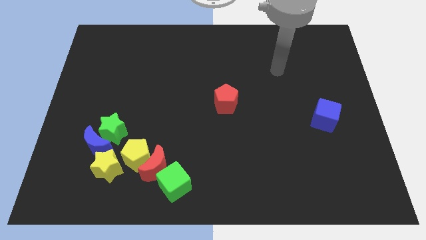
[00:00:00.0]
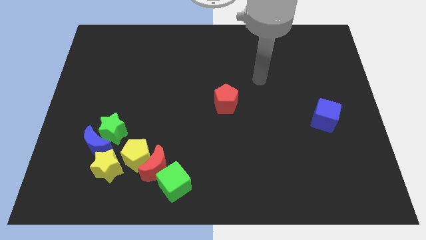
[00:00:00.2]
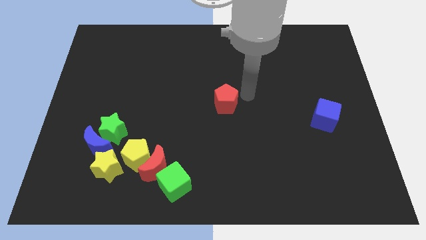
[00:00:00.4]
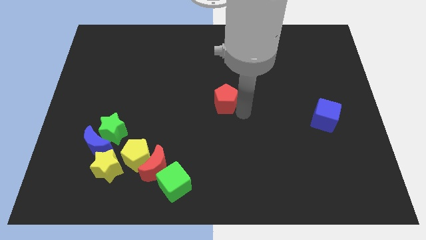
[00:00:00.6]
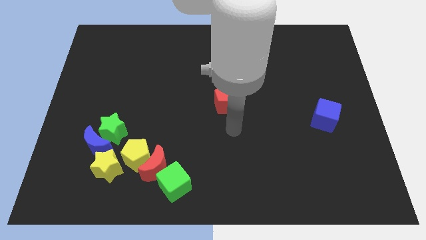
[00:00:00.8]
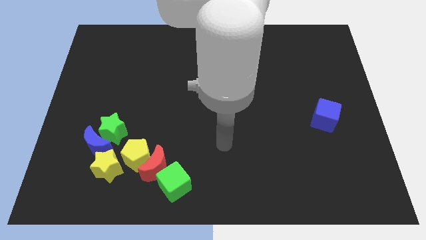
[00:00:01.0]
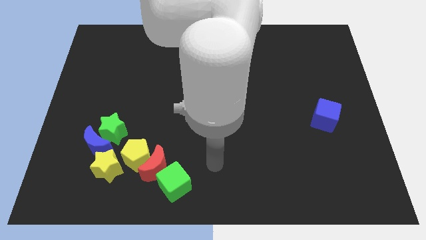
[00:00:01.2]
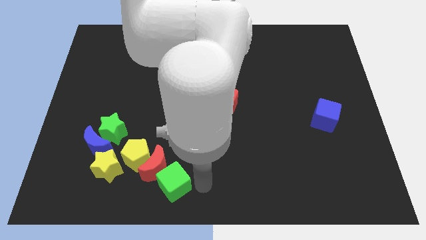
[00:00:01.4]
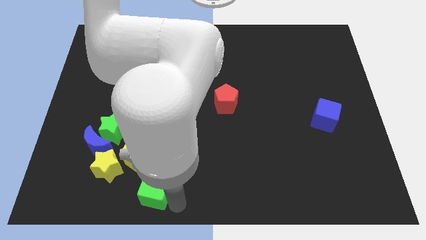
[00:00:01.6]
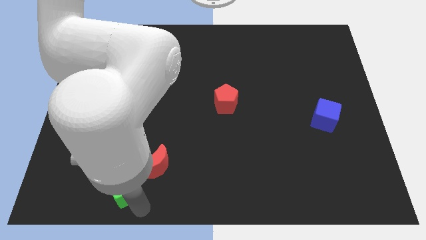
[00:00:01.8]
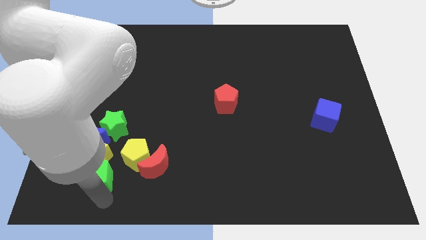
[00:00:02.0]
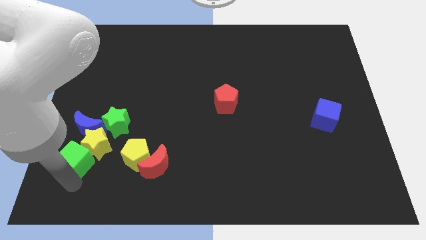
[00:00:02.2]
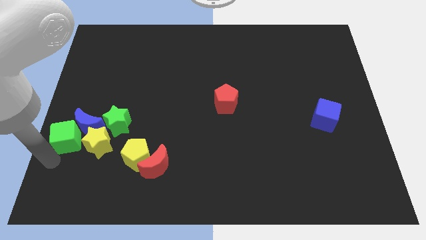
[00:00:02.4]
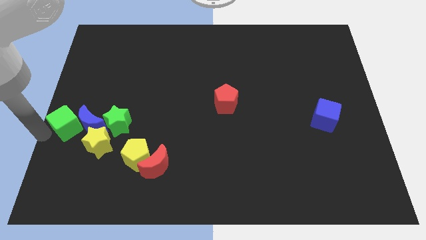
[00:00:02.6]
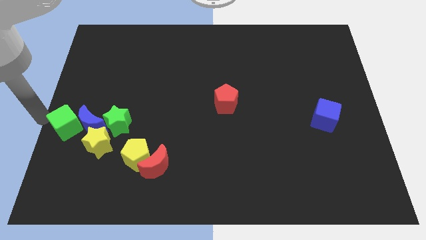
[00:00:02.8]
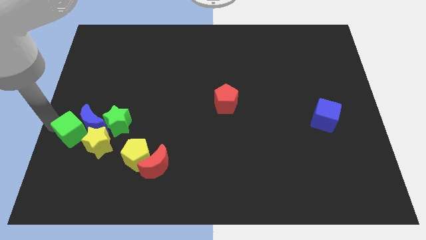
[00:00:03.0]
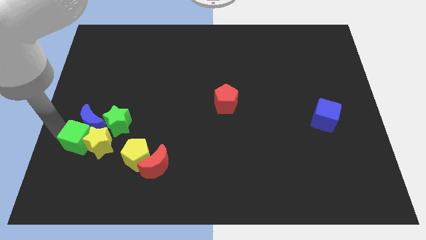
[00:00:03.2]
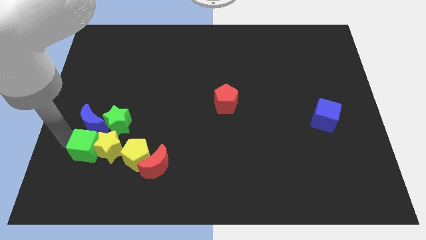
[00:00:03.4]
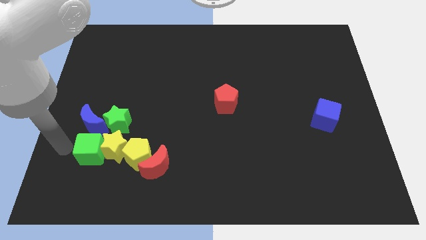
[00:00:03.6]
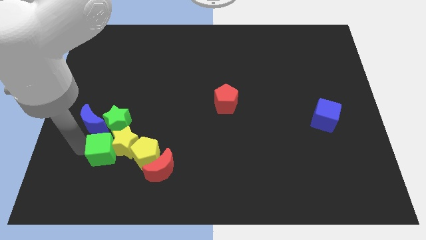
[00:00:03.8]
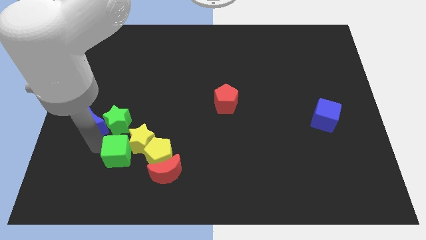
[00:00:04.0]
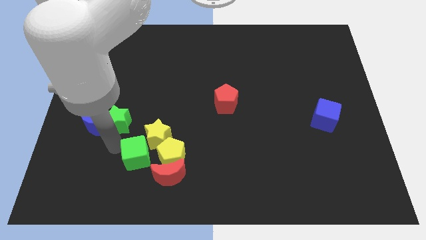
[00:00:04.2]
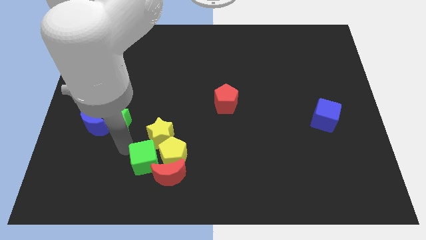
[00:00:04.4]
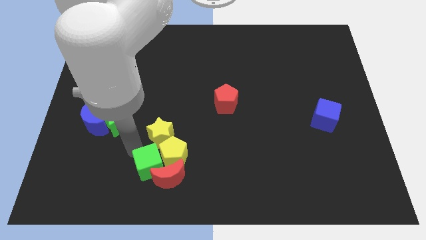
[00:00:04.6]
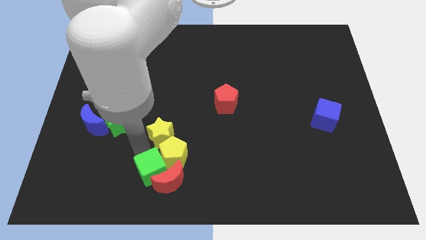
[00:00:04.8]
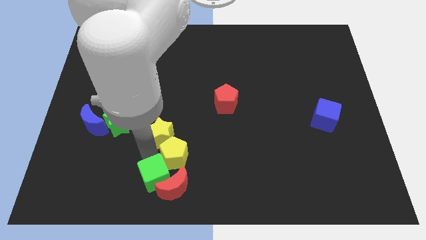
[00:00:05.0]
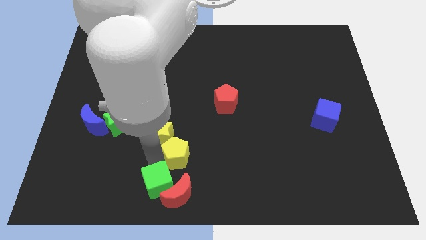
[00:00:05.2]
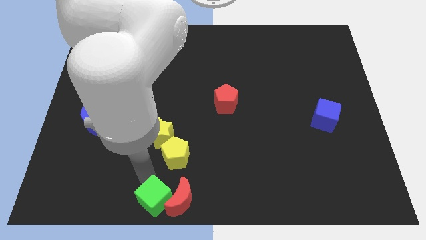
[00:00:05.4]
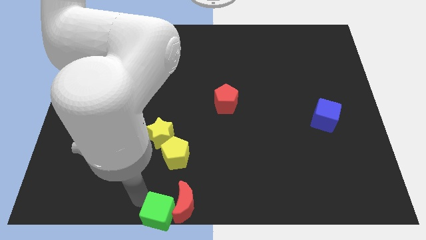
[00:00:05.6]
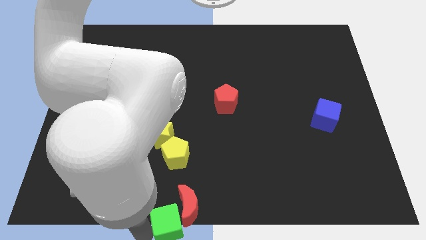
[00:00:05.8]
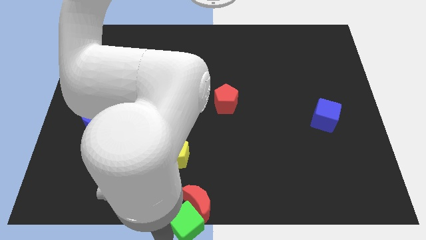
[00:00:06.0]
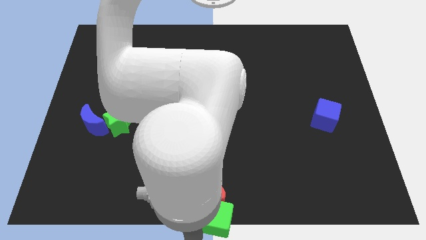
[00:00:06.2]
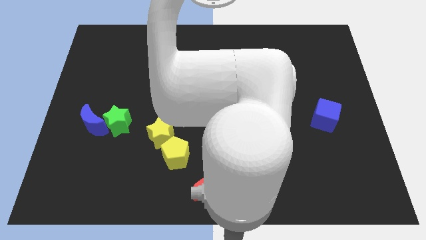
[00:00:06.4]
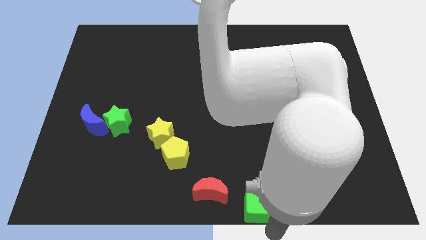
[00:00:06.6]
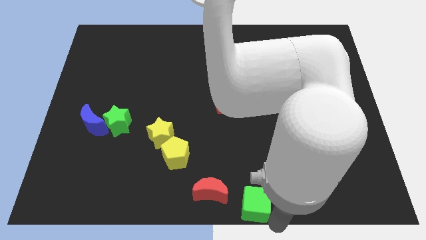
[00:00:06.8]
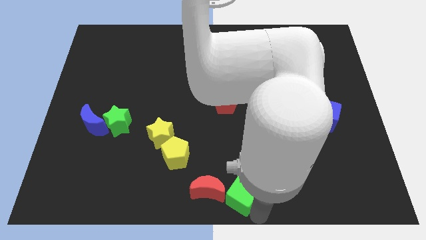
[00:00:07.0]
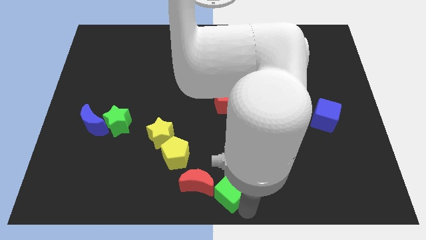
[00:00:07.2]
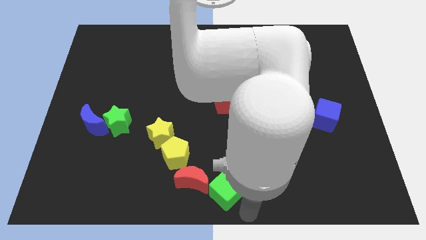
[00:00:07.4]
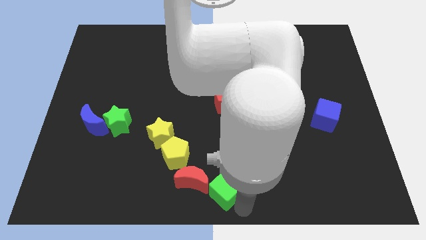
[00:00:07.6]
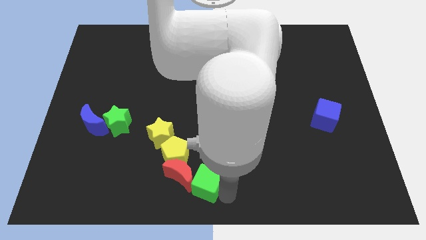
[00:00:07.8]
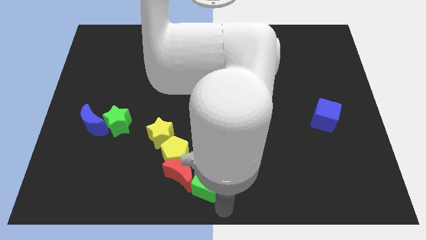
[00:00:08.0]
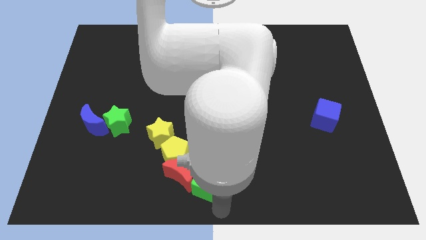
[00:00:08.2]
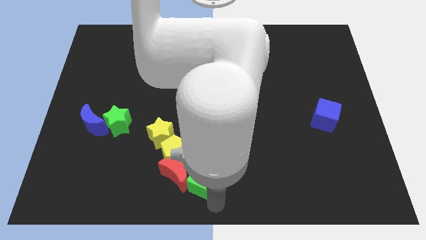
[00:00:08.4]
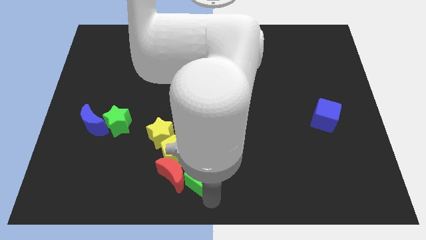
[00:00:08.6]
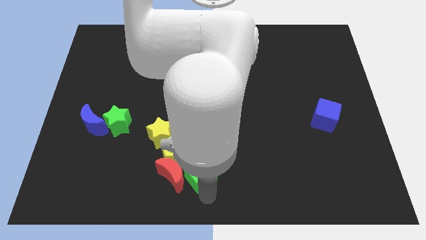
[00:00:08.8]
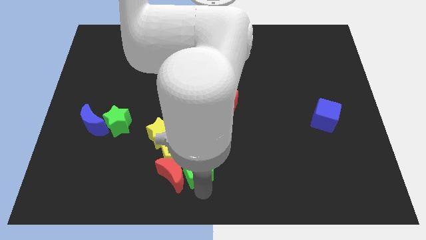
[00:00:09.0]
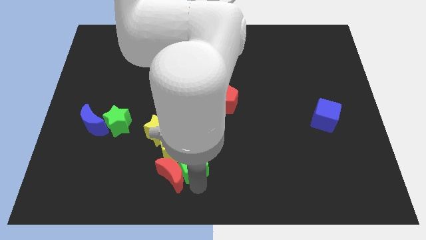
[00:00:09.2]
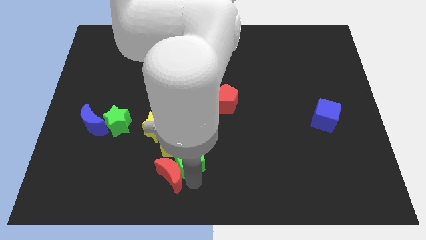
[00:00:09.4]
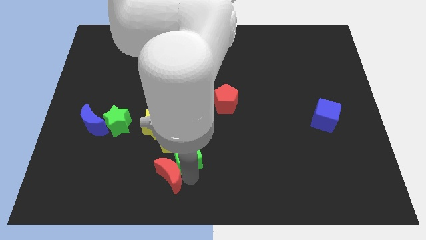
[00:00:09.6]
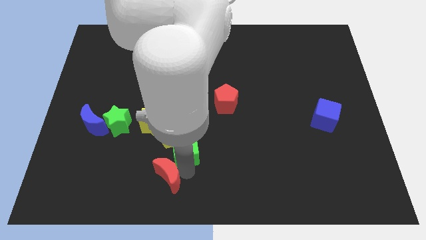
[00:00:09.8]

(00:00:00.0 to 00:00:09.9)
slide the green cube somewhat up

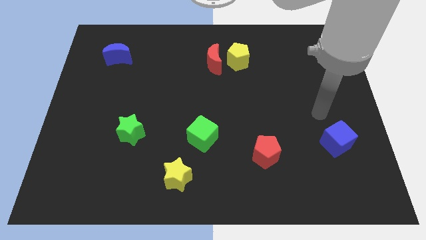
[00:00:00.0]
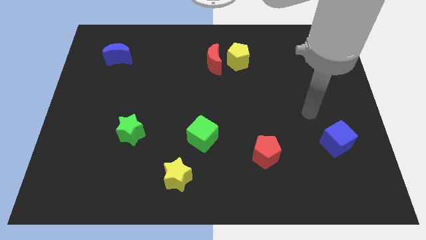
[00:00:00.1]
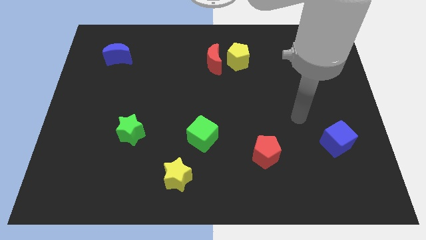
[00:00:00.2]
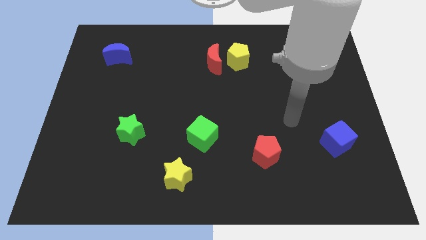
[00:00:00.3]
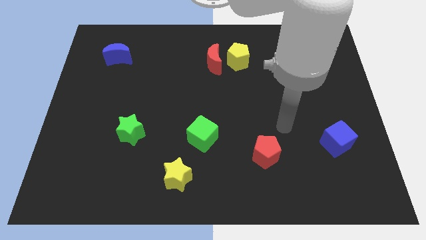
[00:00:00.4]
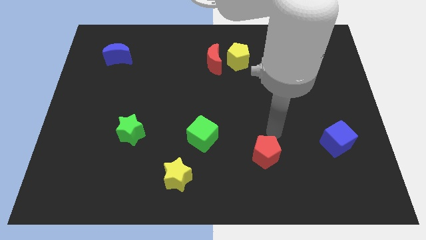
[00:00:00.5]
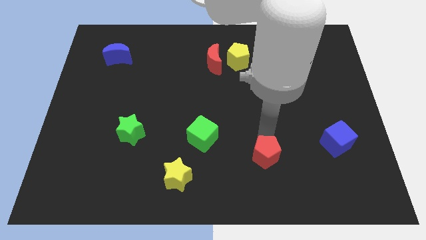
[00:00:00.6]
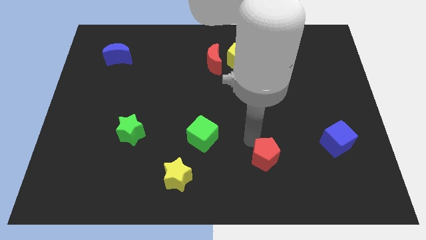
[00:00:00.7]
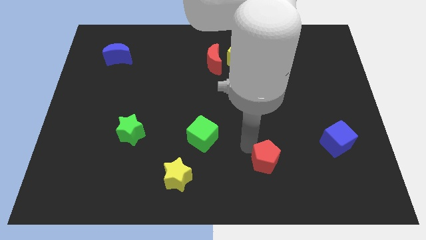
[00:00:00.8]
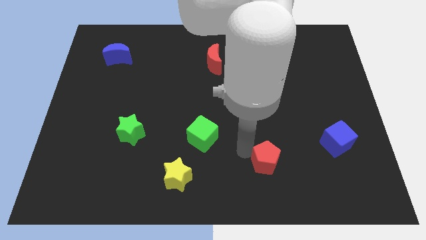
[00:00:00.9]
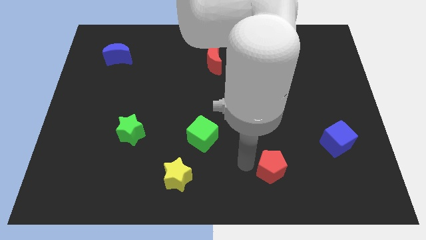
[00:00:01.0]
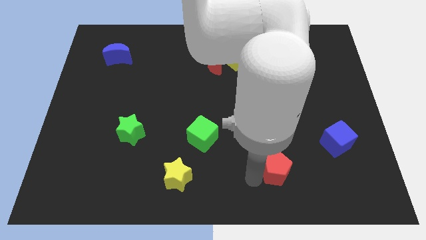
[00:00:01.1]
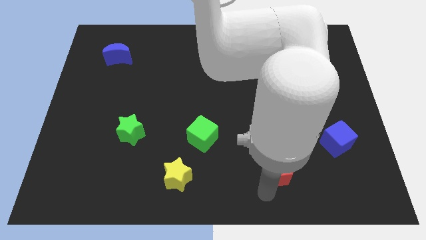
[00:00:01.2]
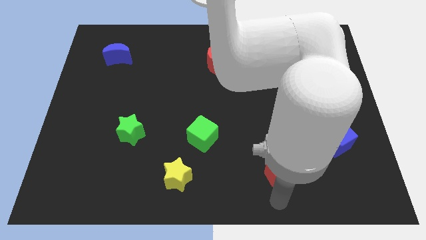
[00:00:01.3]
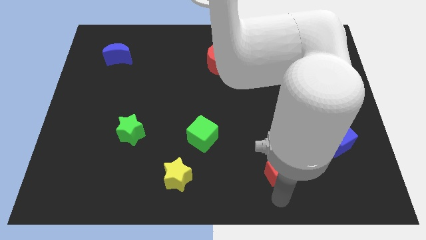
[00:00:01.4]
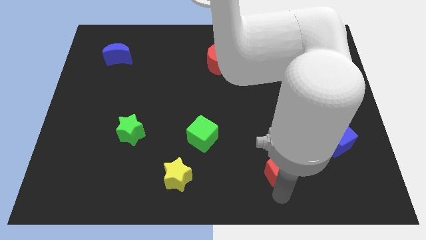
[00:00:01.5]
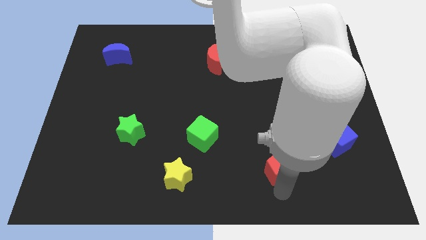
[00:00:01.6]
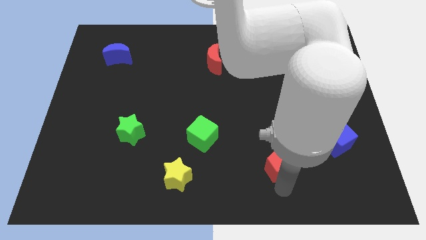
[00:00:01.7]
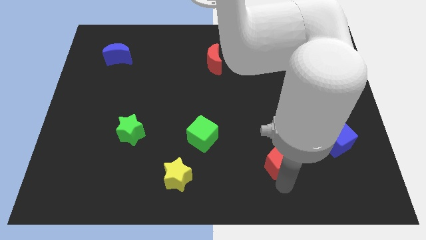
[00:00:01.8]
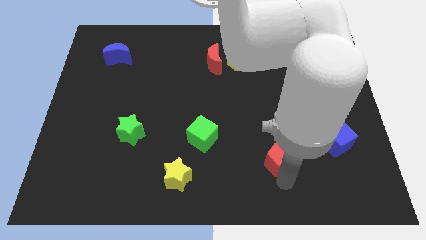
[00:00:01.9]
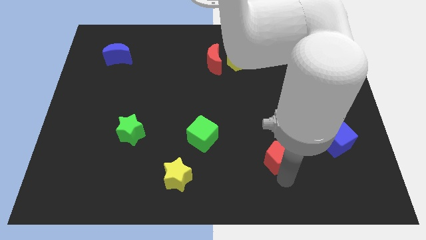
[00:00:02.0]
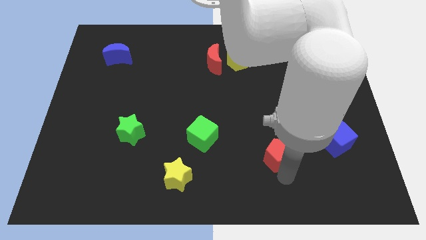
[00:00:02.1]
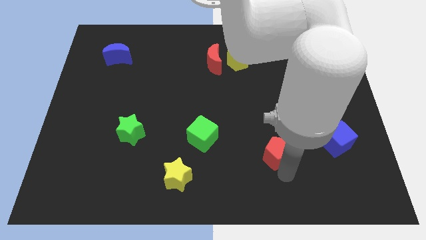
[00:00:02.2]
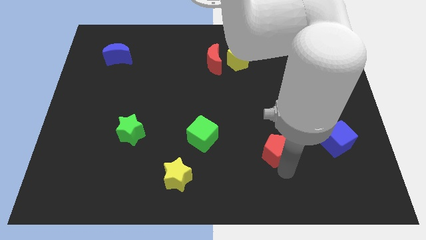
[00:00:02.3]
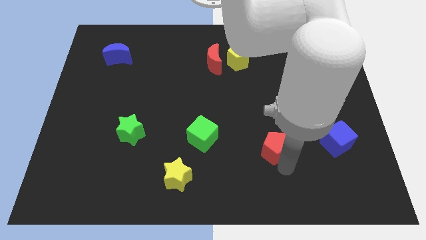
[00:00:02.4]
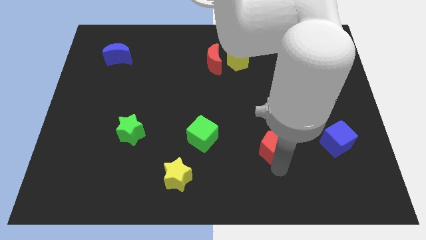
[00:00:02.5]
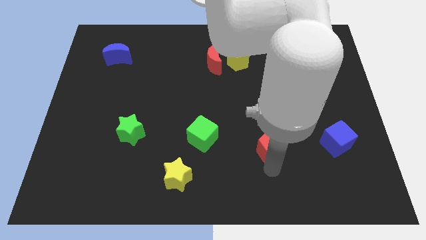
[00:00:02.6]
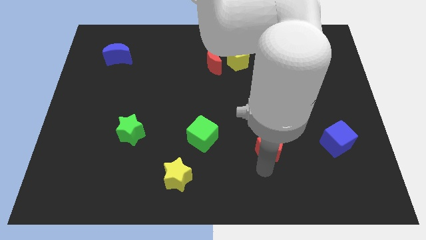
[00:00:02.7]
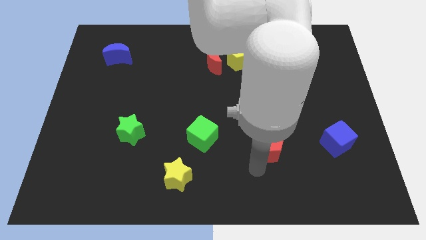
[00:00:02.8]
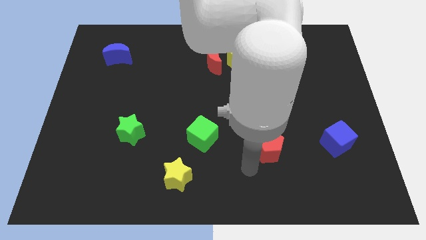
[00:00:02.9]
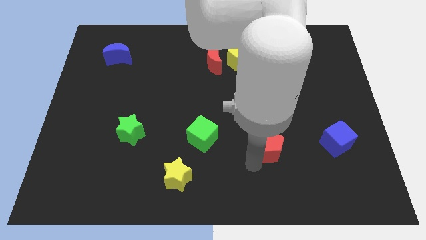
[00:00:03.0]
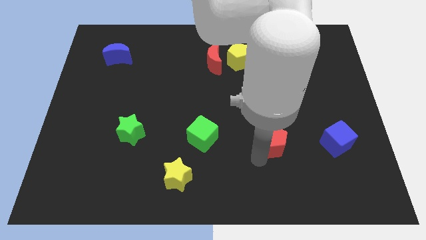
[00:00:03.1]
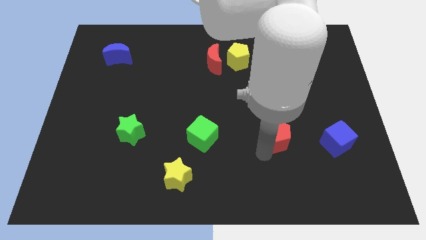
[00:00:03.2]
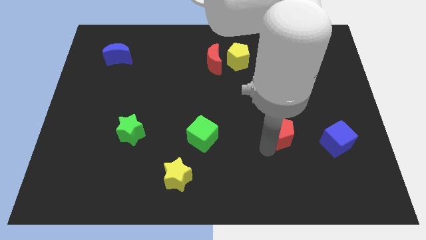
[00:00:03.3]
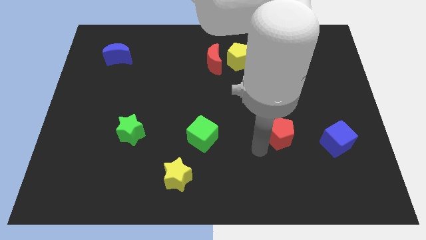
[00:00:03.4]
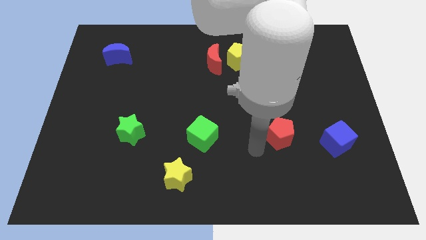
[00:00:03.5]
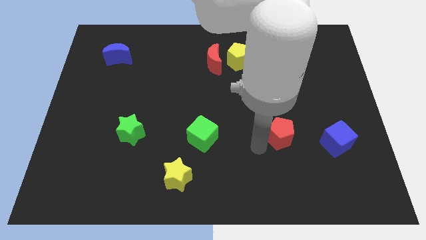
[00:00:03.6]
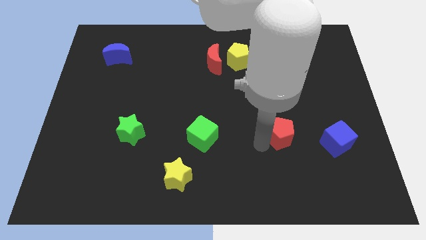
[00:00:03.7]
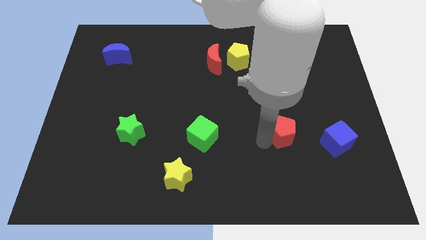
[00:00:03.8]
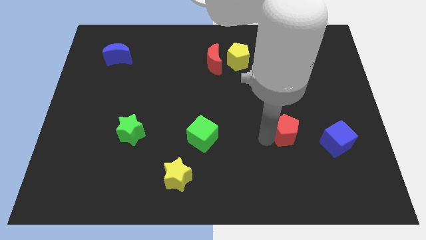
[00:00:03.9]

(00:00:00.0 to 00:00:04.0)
move the red pentagon slightly up and to the right
